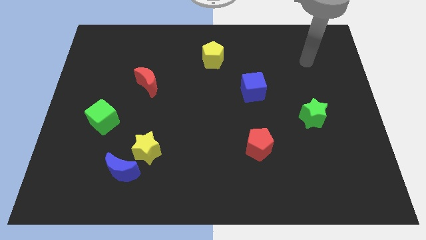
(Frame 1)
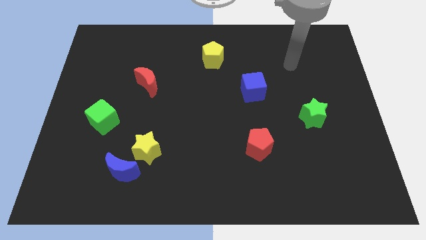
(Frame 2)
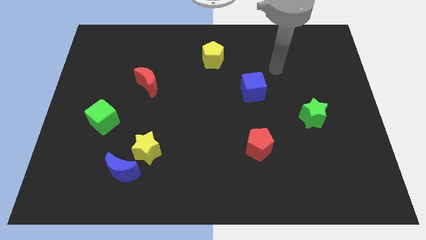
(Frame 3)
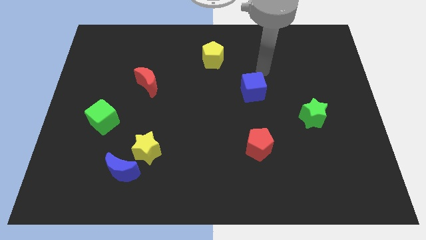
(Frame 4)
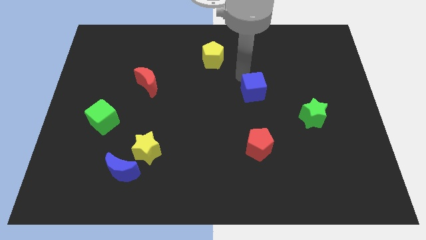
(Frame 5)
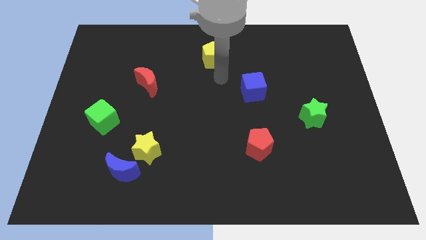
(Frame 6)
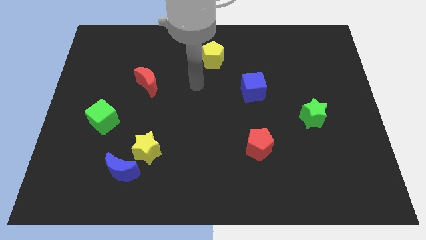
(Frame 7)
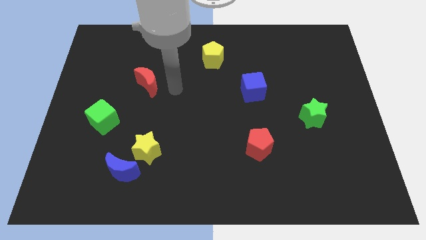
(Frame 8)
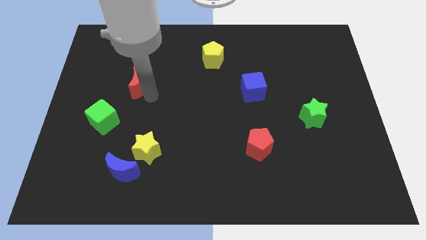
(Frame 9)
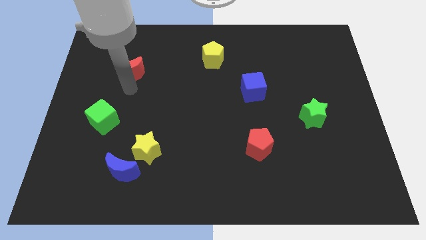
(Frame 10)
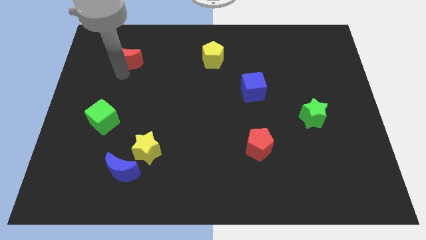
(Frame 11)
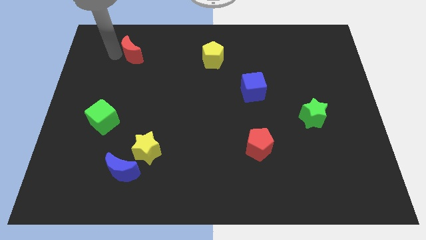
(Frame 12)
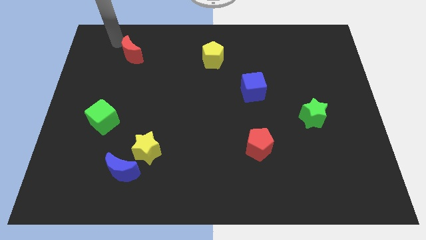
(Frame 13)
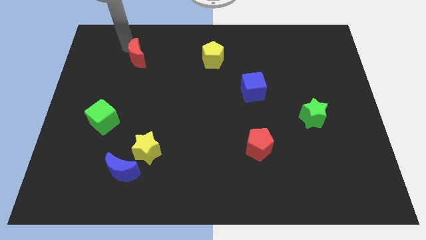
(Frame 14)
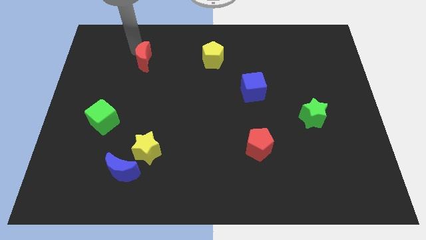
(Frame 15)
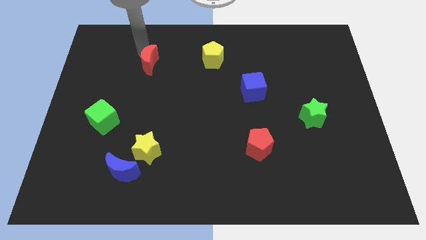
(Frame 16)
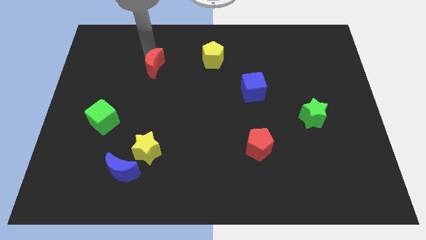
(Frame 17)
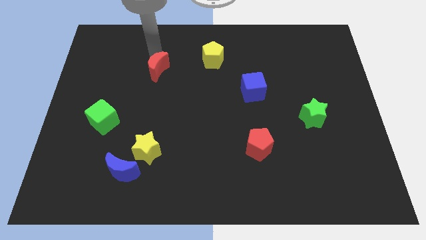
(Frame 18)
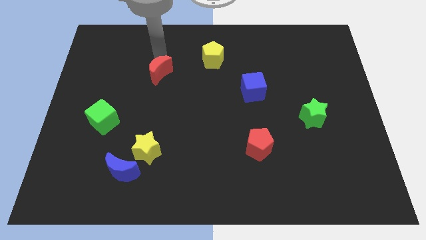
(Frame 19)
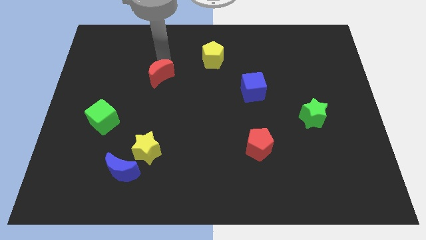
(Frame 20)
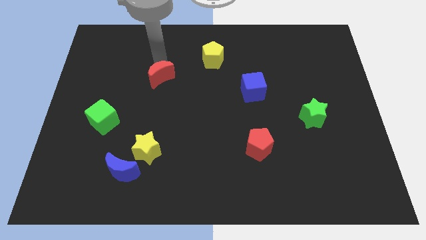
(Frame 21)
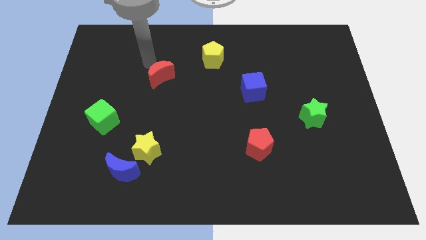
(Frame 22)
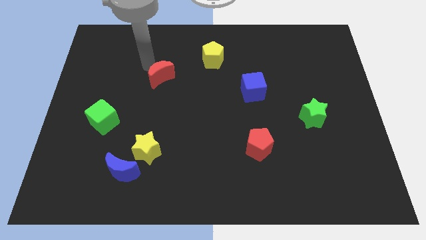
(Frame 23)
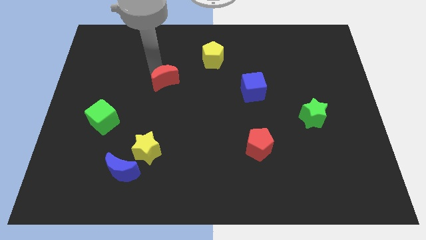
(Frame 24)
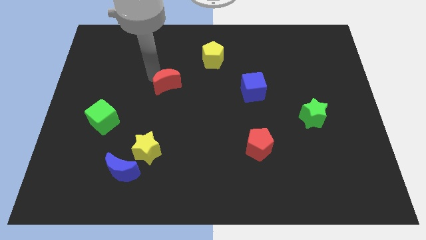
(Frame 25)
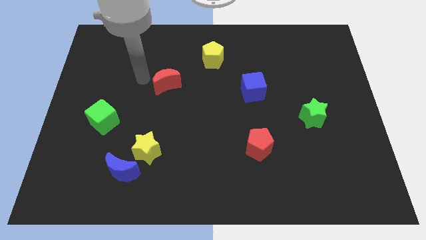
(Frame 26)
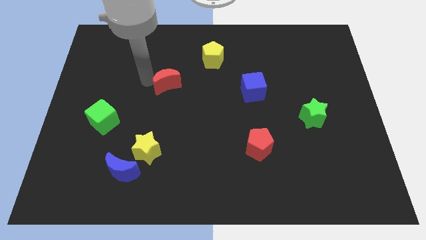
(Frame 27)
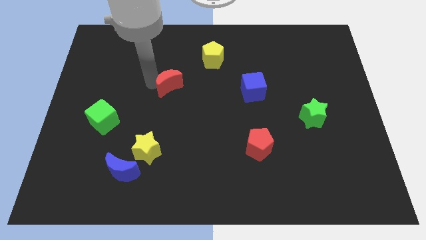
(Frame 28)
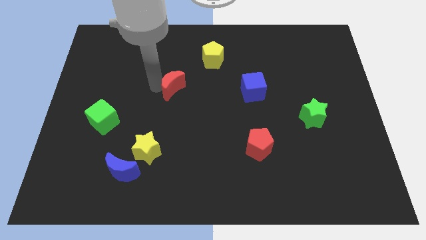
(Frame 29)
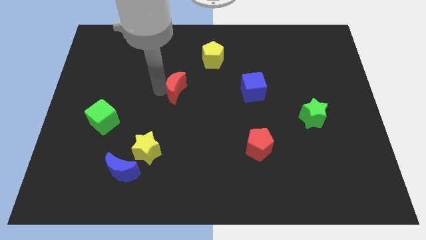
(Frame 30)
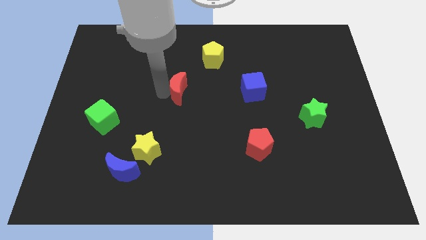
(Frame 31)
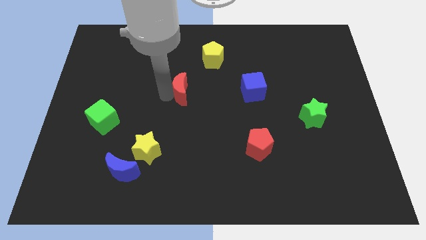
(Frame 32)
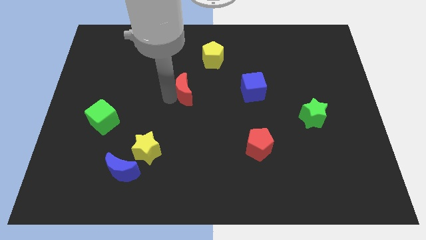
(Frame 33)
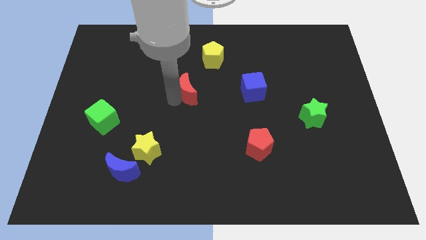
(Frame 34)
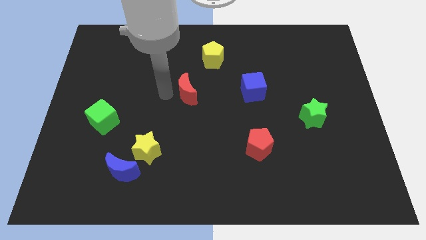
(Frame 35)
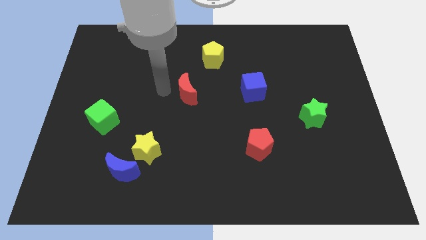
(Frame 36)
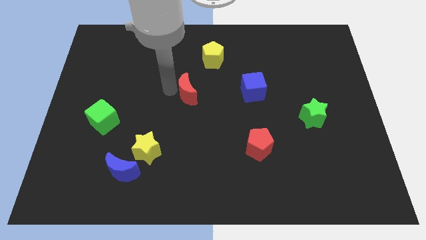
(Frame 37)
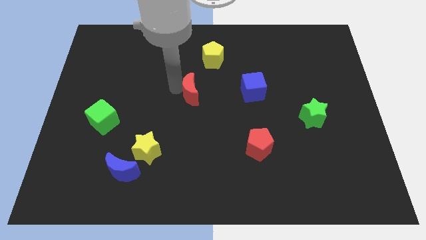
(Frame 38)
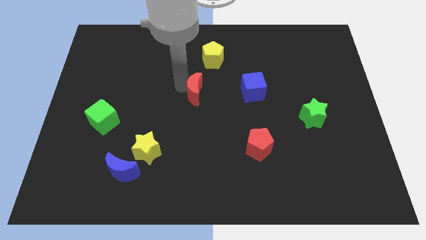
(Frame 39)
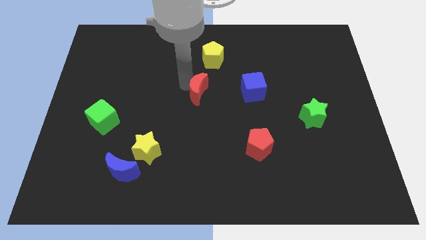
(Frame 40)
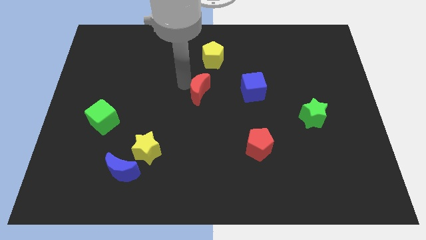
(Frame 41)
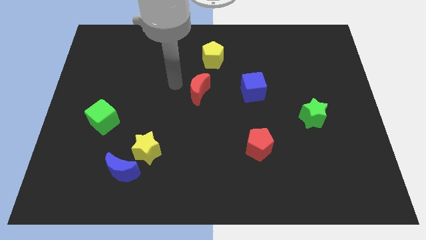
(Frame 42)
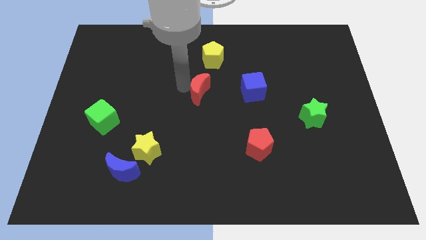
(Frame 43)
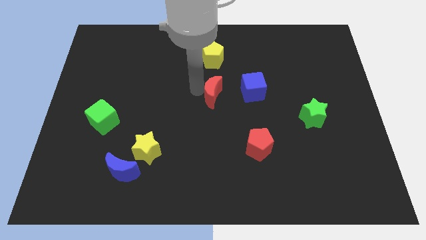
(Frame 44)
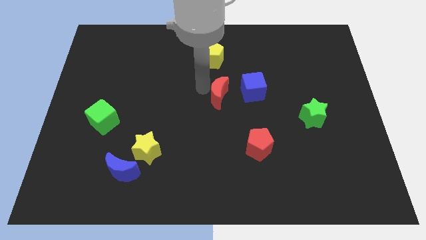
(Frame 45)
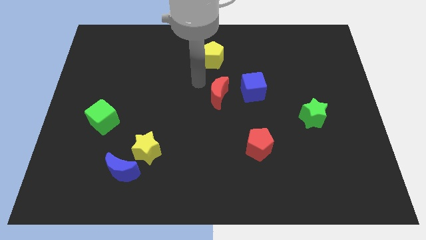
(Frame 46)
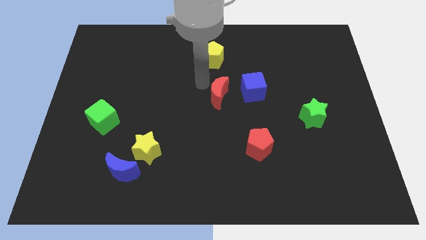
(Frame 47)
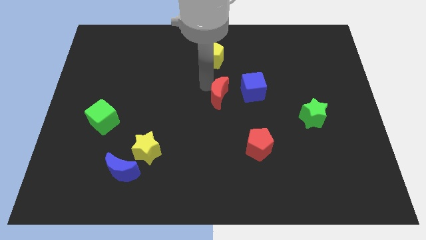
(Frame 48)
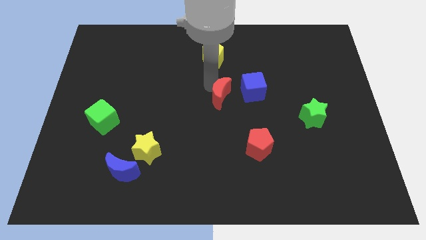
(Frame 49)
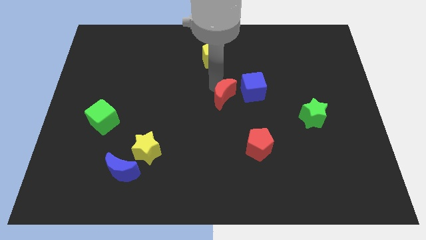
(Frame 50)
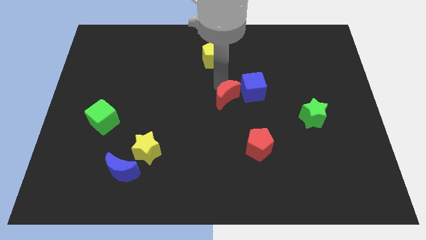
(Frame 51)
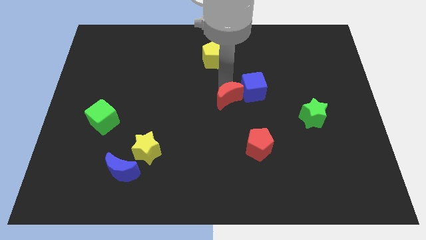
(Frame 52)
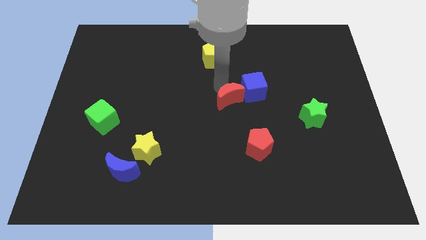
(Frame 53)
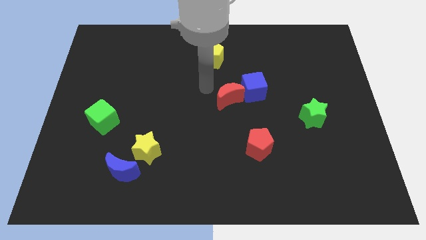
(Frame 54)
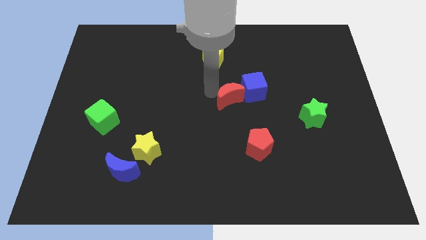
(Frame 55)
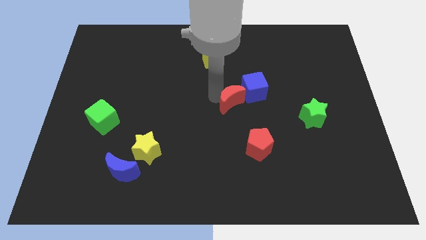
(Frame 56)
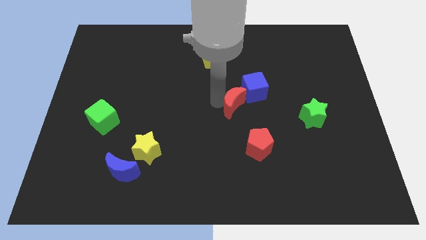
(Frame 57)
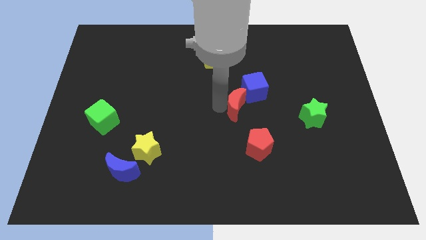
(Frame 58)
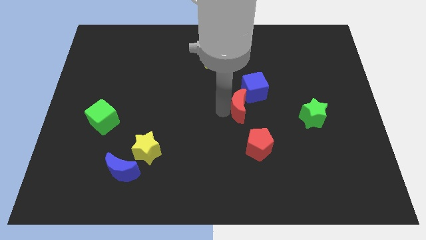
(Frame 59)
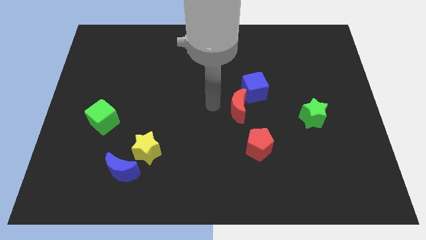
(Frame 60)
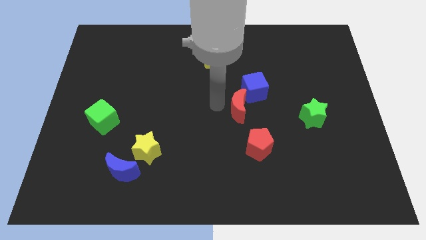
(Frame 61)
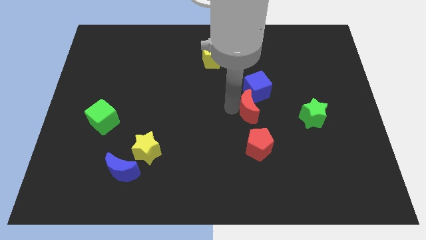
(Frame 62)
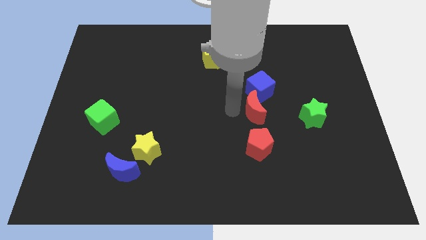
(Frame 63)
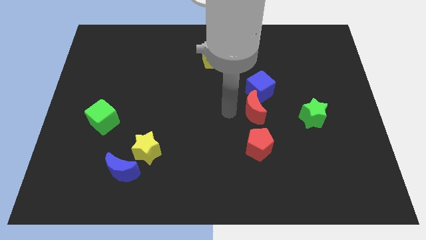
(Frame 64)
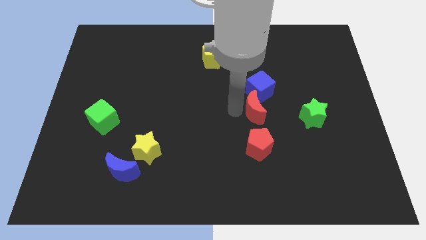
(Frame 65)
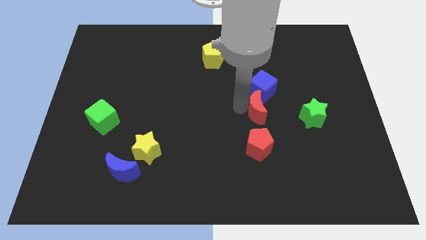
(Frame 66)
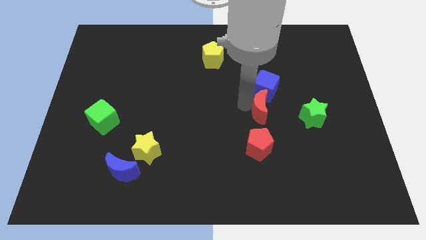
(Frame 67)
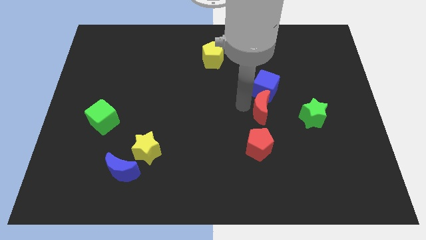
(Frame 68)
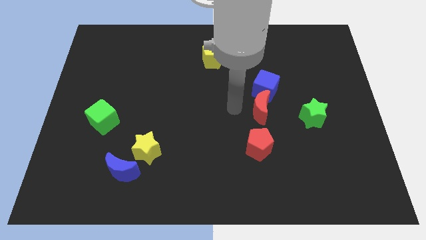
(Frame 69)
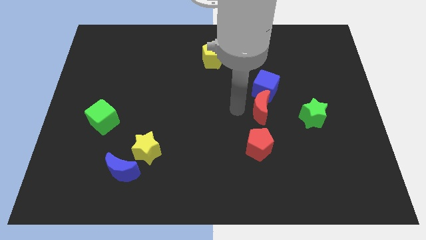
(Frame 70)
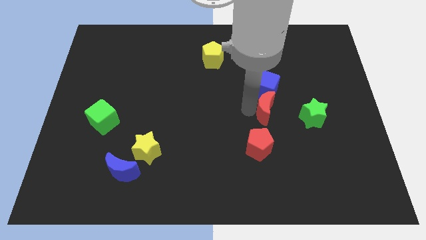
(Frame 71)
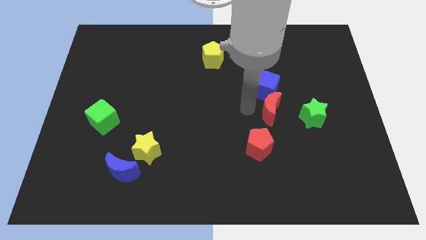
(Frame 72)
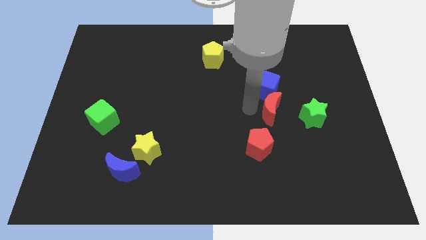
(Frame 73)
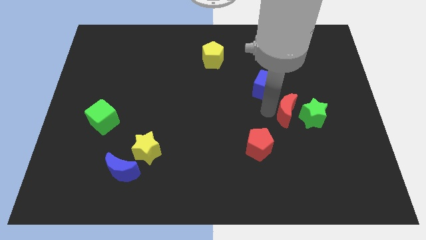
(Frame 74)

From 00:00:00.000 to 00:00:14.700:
move the red moon next to the green star

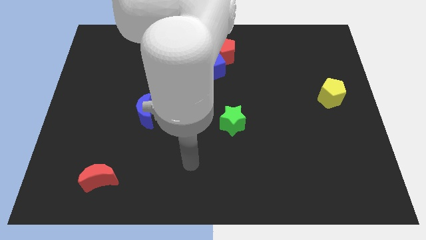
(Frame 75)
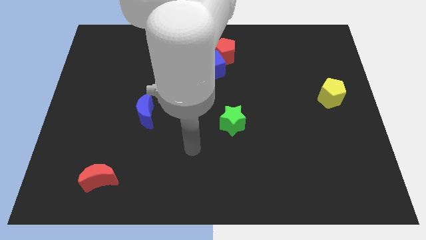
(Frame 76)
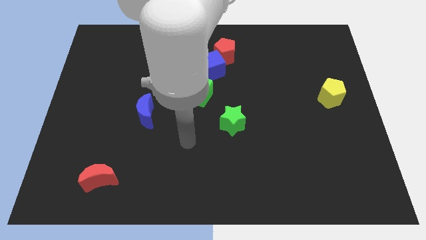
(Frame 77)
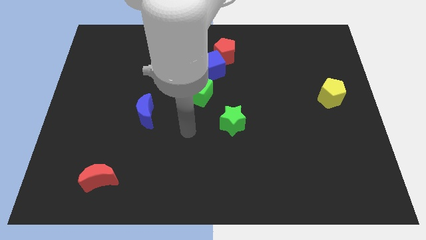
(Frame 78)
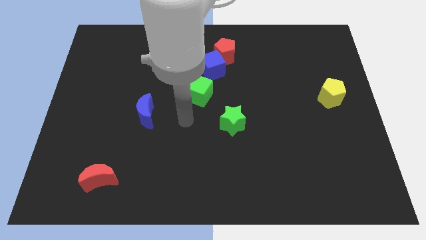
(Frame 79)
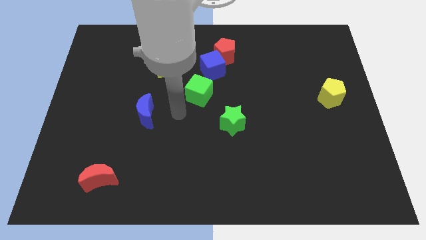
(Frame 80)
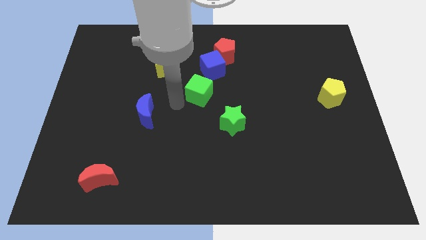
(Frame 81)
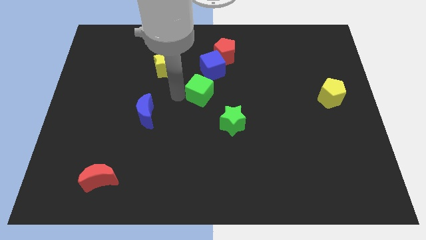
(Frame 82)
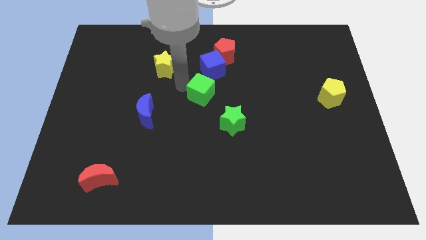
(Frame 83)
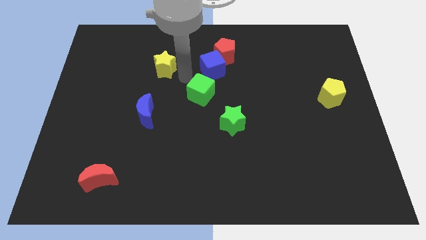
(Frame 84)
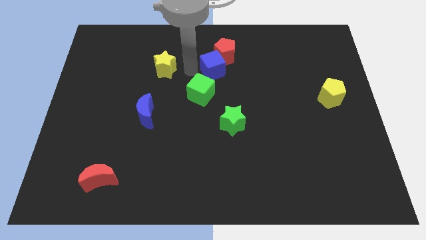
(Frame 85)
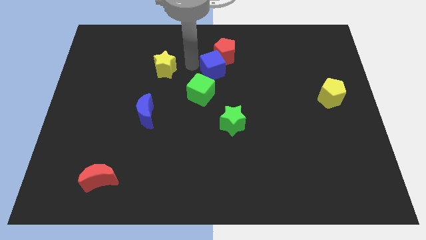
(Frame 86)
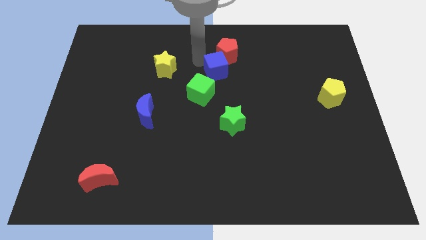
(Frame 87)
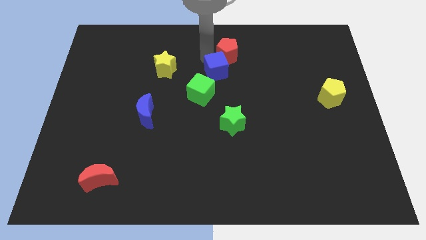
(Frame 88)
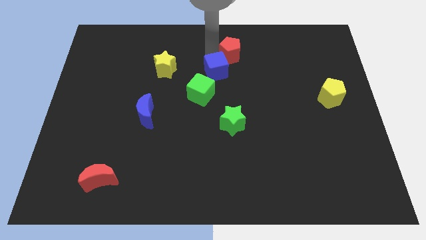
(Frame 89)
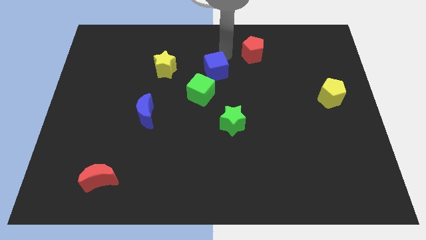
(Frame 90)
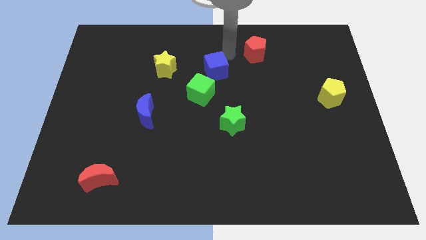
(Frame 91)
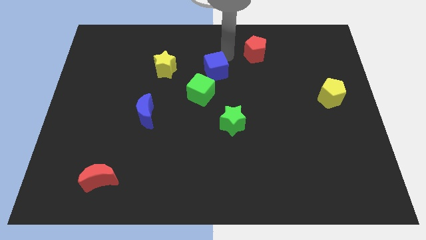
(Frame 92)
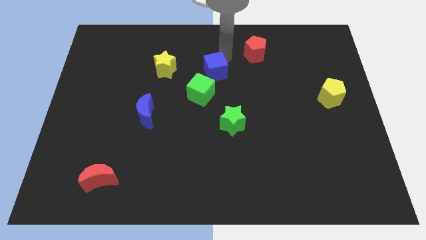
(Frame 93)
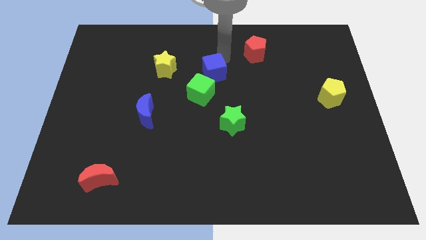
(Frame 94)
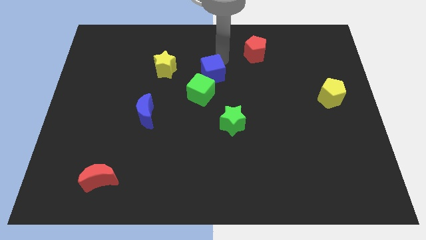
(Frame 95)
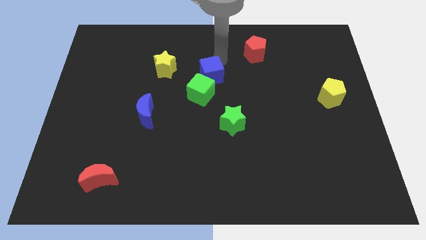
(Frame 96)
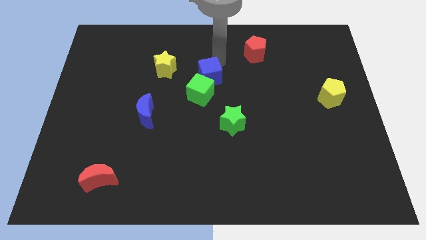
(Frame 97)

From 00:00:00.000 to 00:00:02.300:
push the blue cube to the green cube
